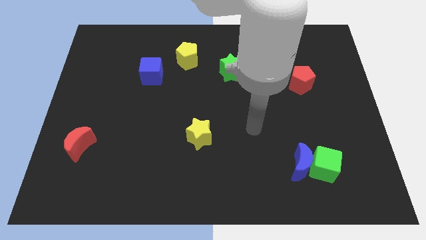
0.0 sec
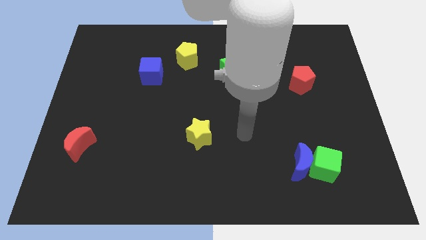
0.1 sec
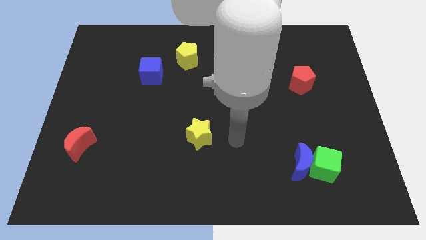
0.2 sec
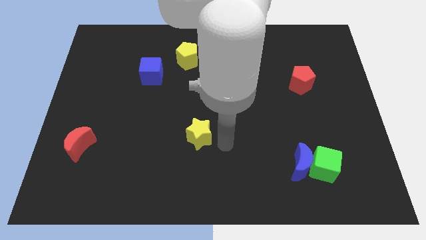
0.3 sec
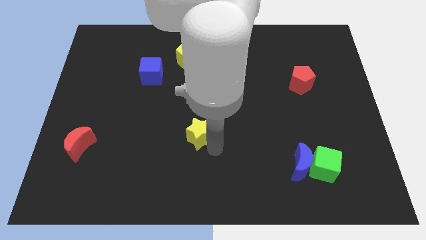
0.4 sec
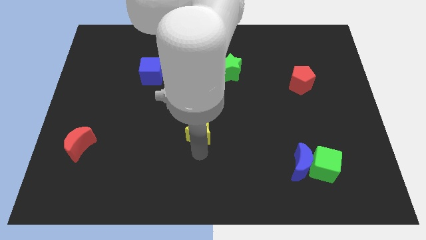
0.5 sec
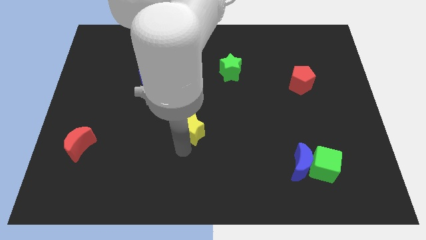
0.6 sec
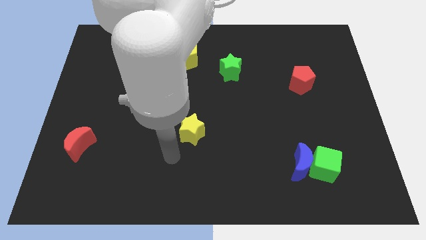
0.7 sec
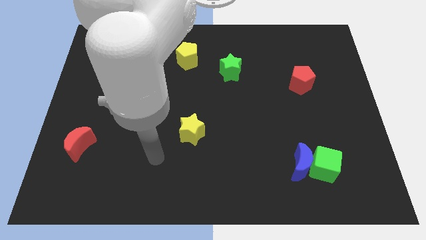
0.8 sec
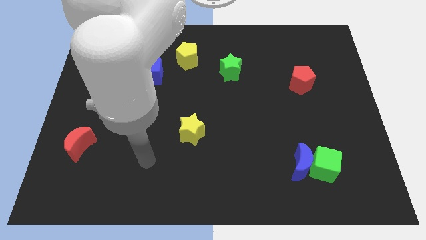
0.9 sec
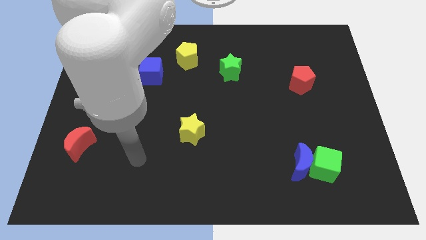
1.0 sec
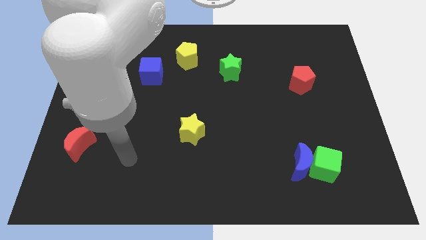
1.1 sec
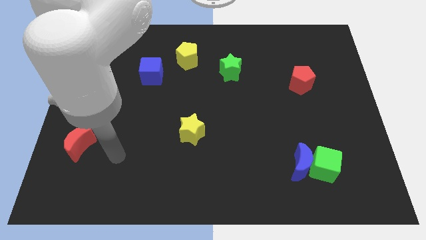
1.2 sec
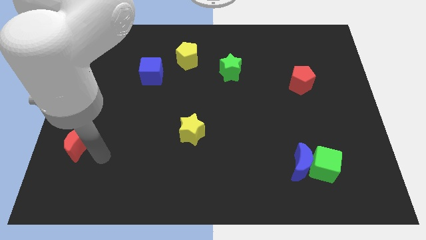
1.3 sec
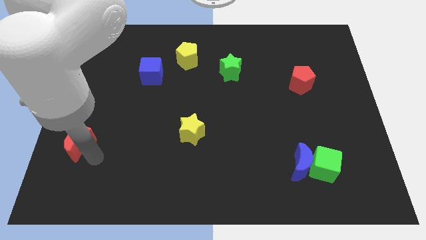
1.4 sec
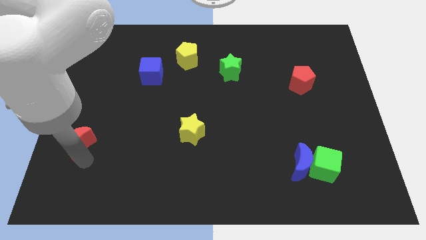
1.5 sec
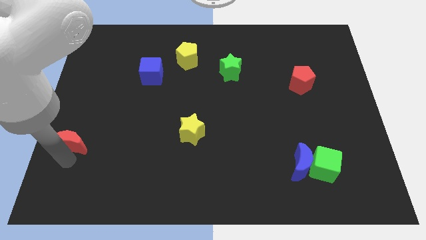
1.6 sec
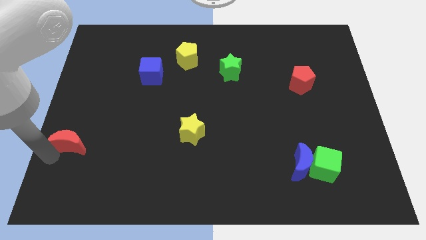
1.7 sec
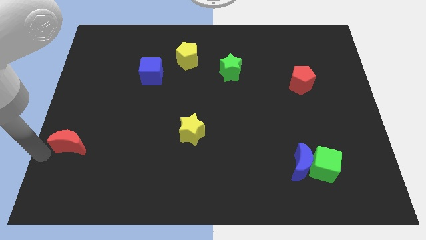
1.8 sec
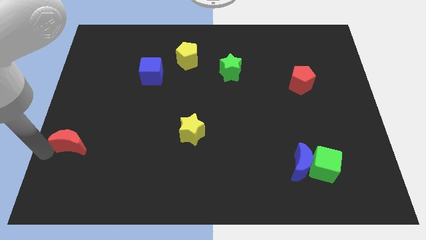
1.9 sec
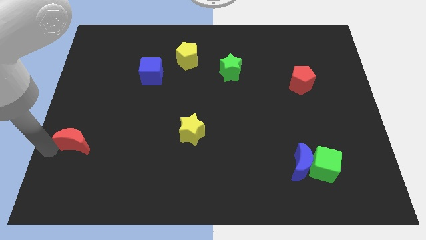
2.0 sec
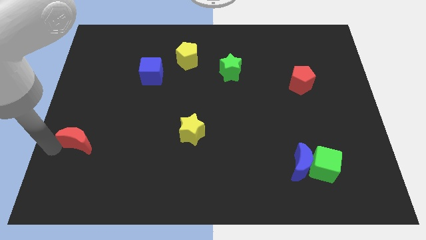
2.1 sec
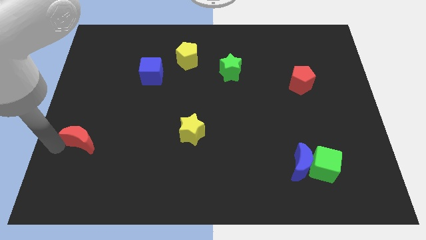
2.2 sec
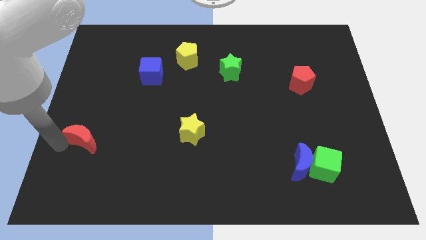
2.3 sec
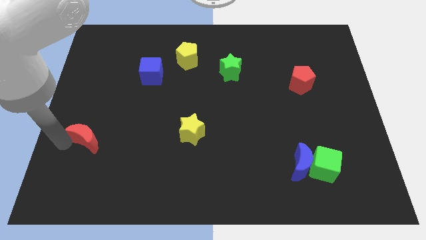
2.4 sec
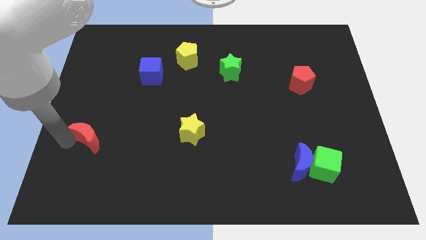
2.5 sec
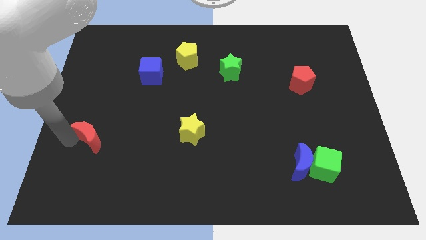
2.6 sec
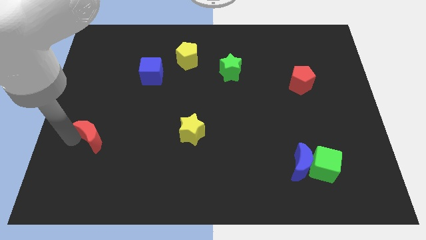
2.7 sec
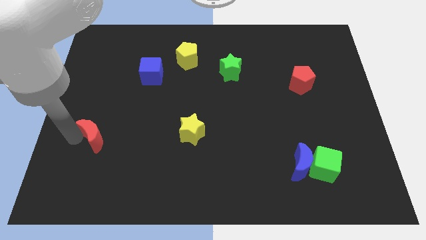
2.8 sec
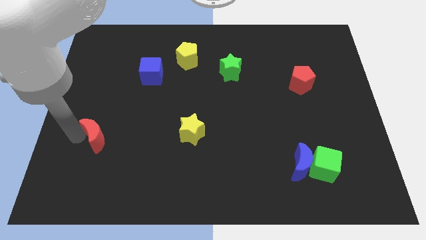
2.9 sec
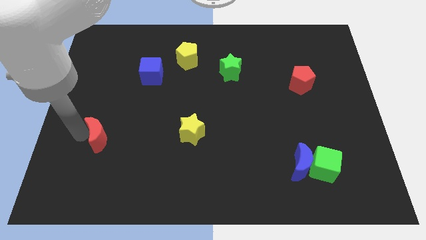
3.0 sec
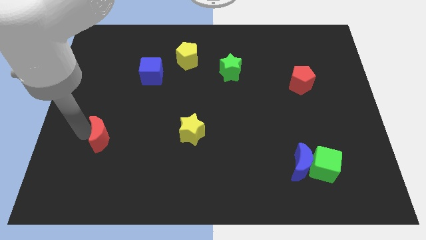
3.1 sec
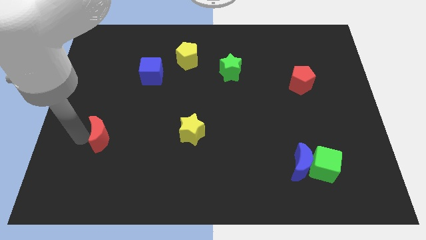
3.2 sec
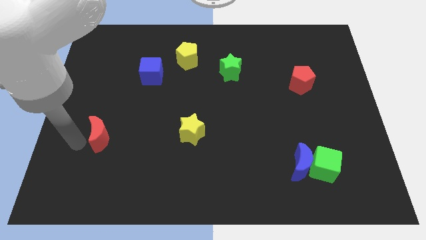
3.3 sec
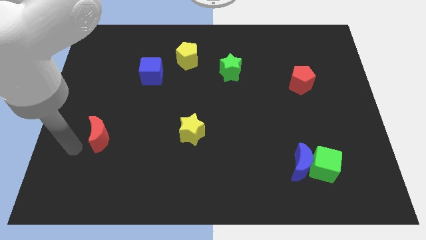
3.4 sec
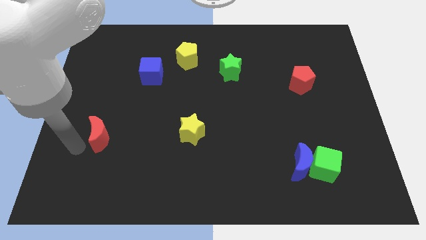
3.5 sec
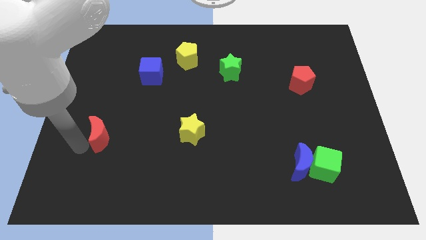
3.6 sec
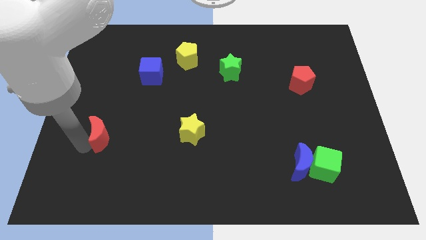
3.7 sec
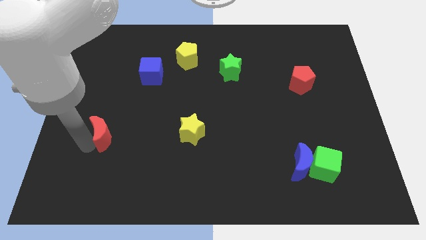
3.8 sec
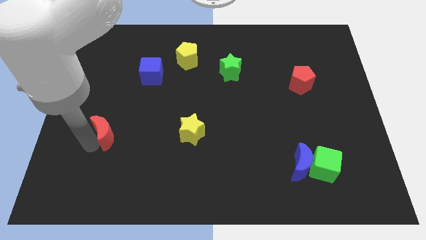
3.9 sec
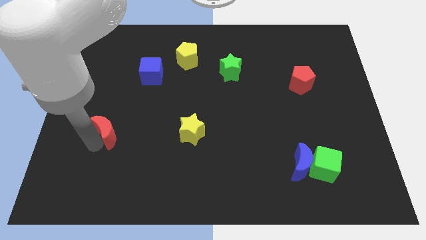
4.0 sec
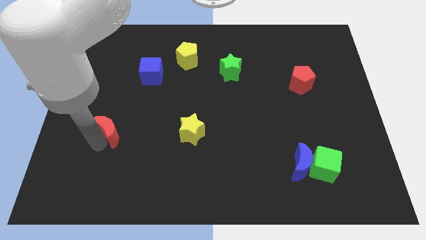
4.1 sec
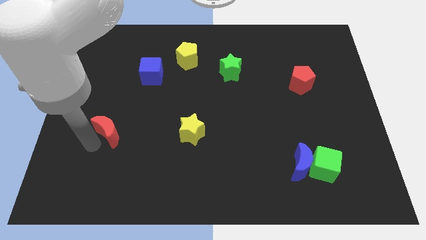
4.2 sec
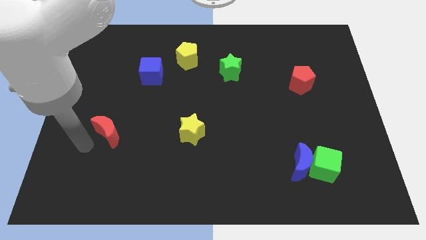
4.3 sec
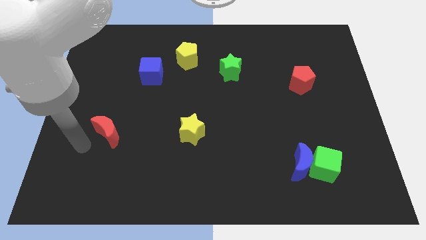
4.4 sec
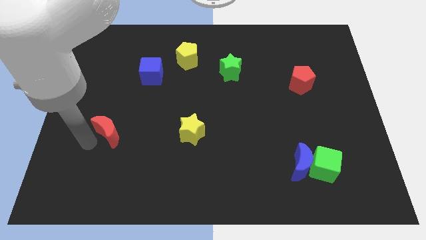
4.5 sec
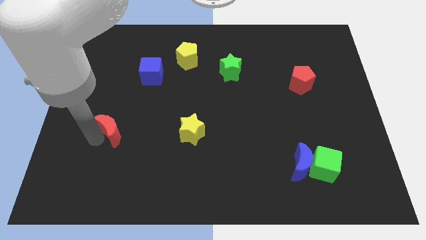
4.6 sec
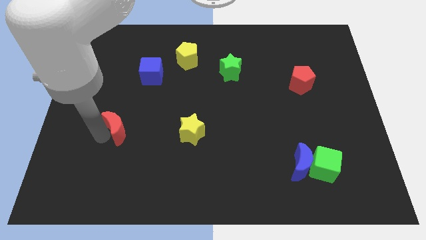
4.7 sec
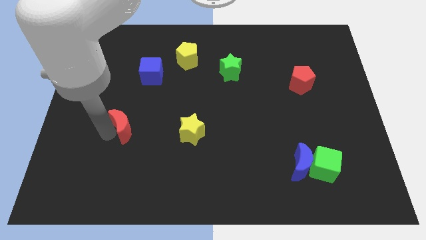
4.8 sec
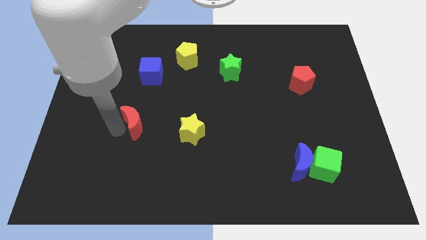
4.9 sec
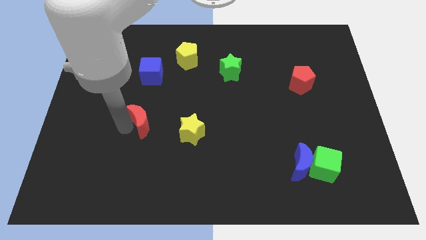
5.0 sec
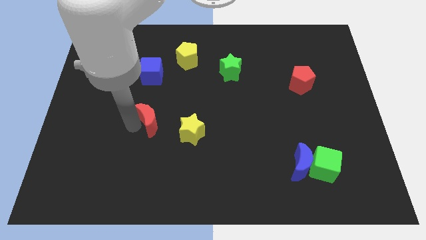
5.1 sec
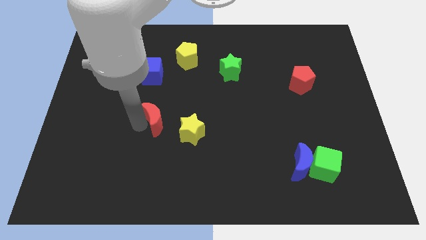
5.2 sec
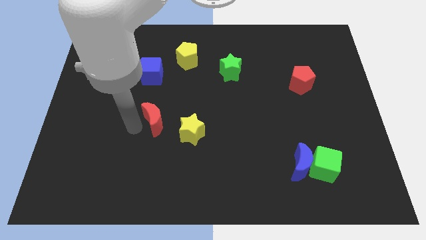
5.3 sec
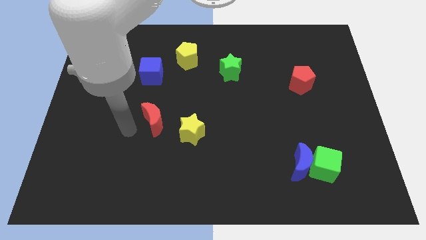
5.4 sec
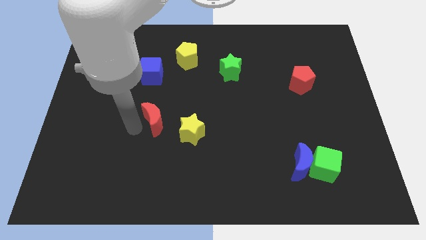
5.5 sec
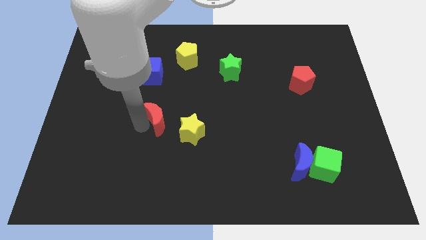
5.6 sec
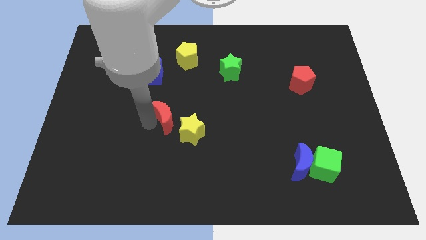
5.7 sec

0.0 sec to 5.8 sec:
push the red moon to the middle
